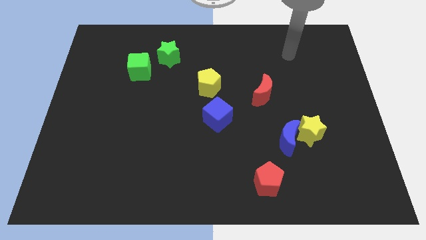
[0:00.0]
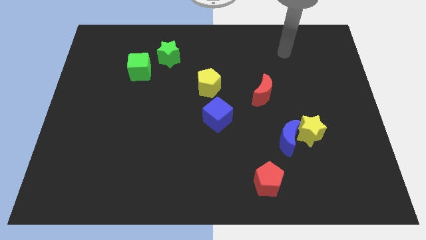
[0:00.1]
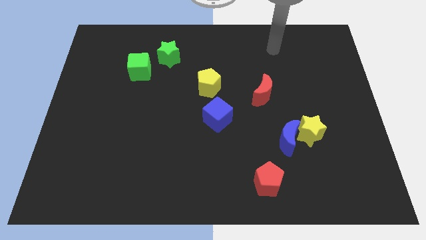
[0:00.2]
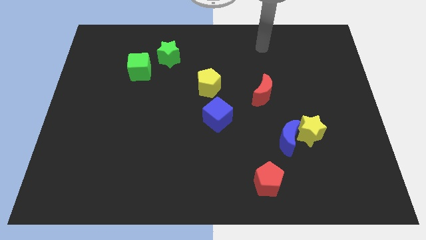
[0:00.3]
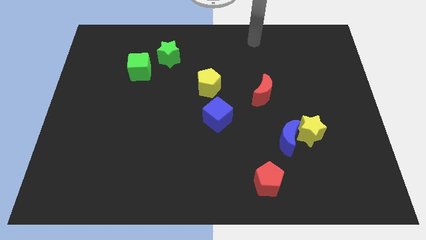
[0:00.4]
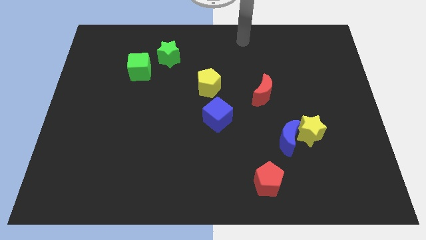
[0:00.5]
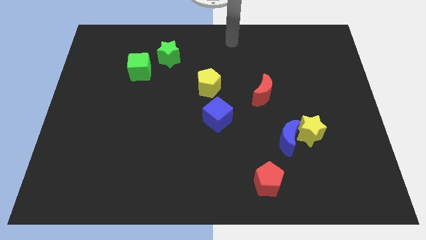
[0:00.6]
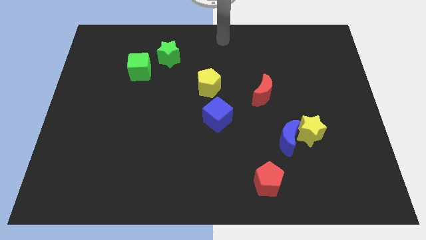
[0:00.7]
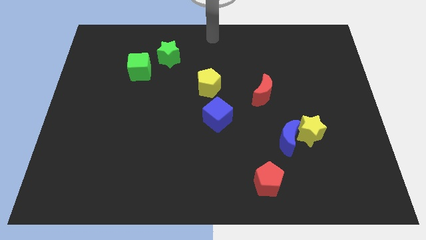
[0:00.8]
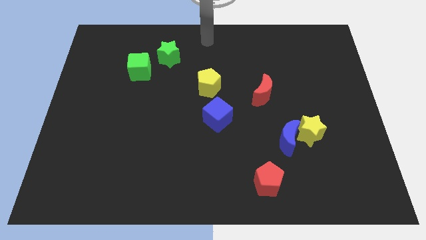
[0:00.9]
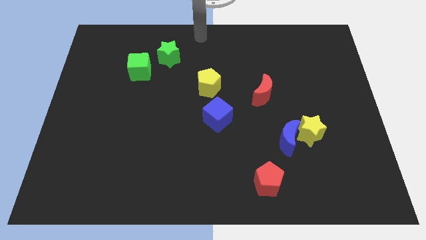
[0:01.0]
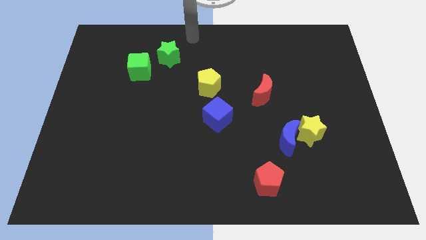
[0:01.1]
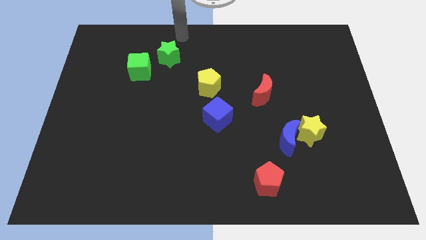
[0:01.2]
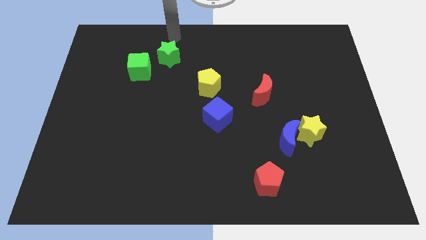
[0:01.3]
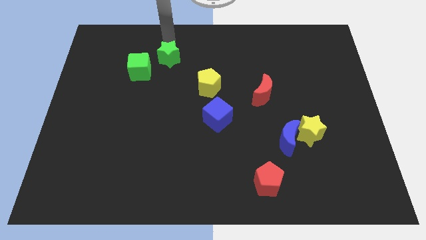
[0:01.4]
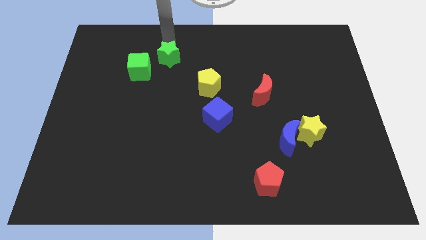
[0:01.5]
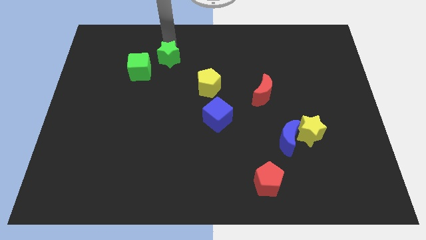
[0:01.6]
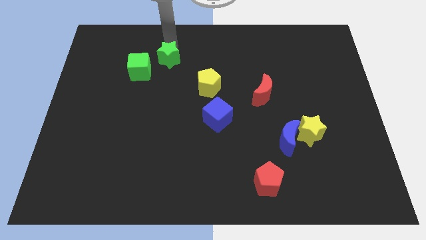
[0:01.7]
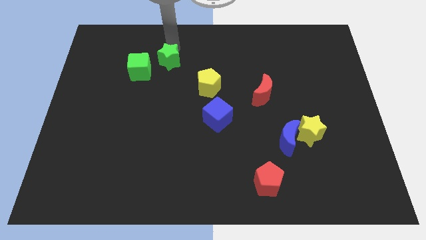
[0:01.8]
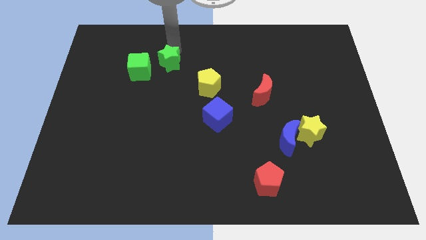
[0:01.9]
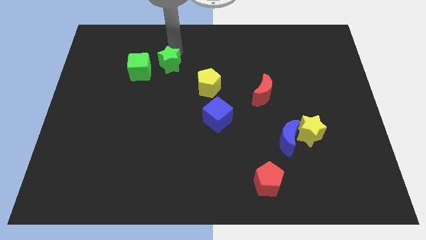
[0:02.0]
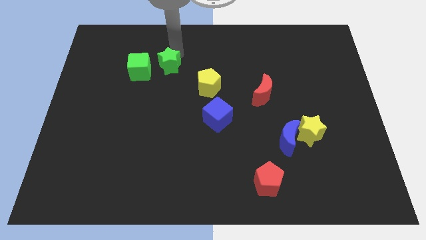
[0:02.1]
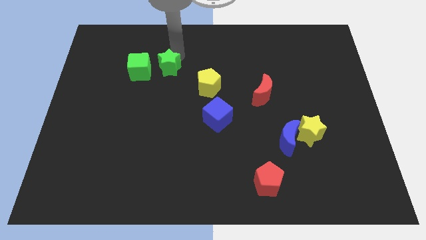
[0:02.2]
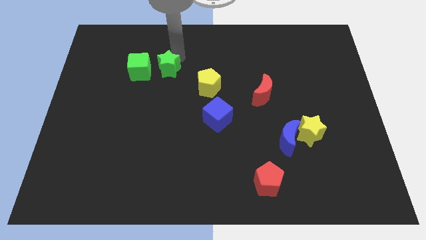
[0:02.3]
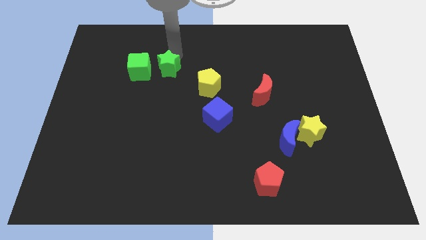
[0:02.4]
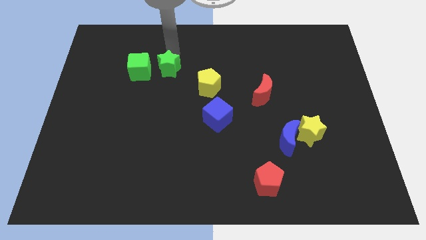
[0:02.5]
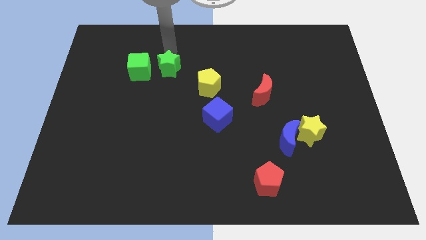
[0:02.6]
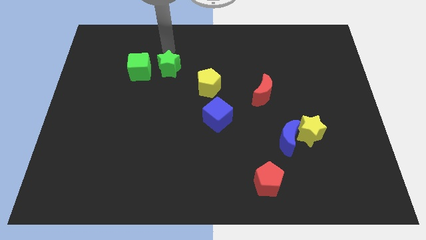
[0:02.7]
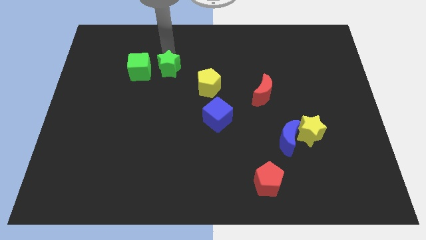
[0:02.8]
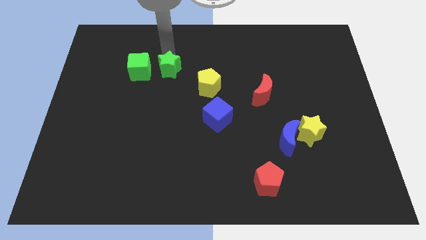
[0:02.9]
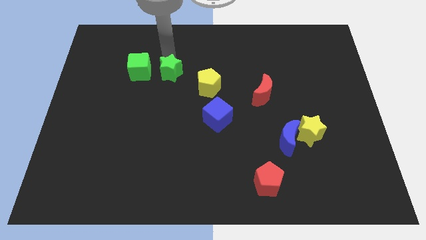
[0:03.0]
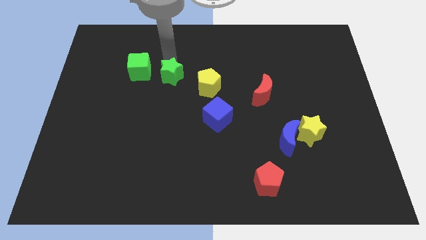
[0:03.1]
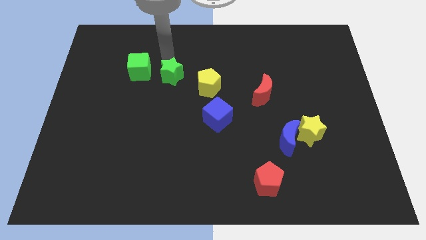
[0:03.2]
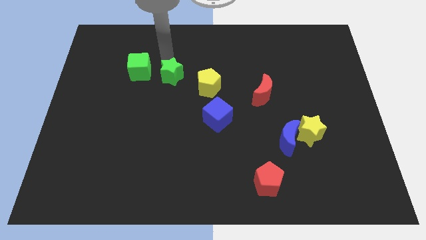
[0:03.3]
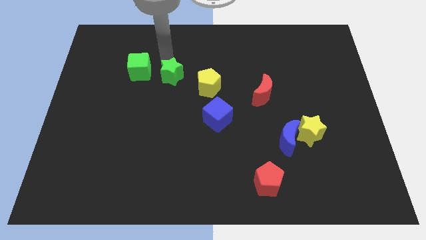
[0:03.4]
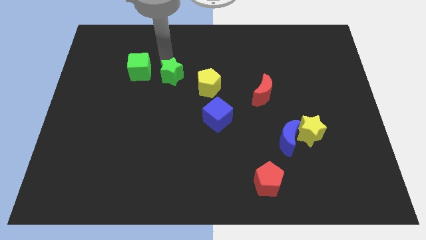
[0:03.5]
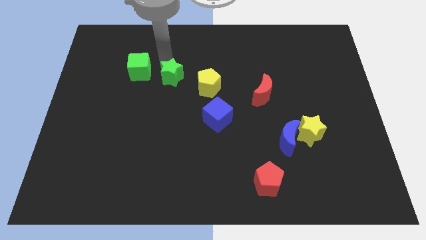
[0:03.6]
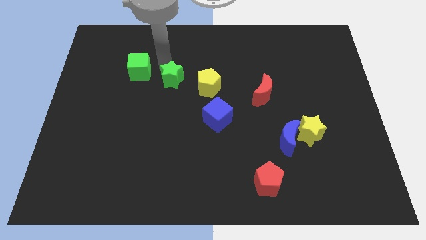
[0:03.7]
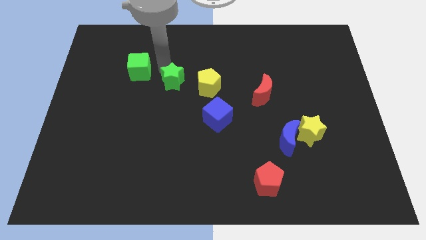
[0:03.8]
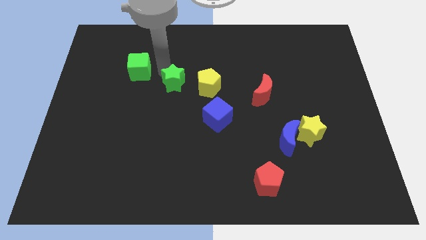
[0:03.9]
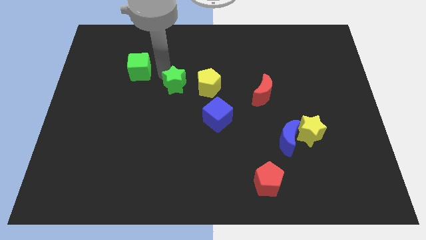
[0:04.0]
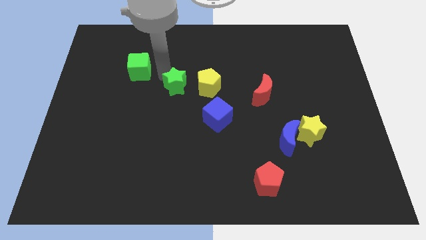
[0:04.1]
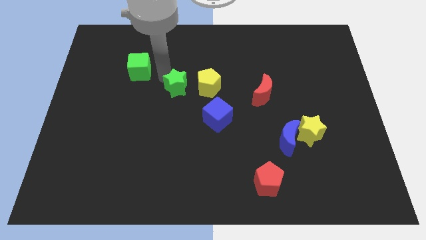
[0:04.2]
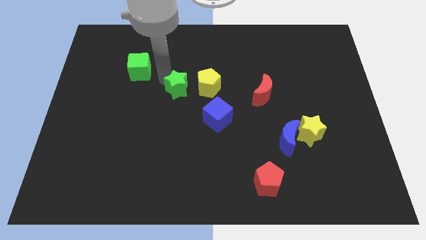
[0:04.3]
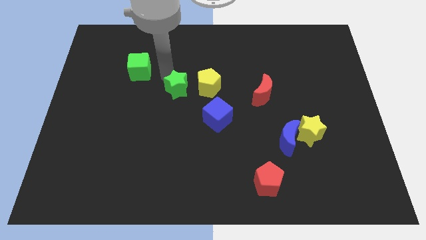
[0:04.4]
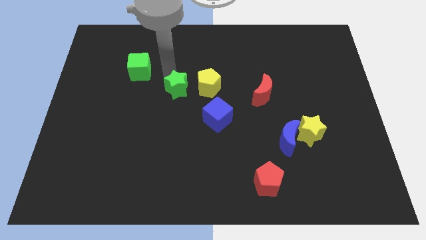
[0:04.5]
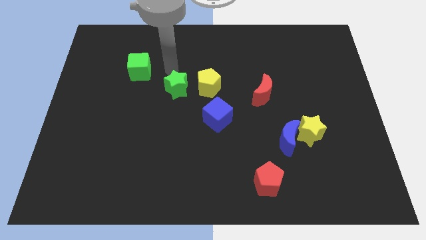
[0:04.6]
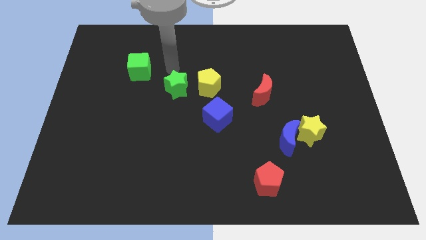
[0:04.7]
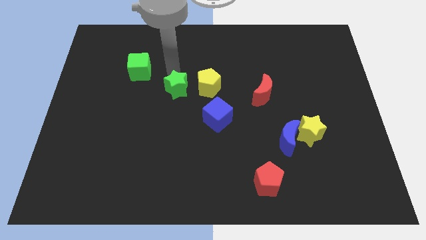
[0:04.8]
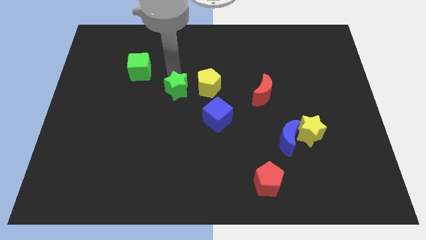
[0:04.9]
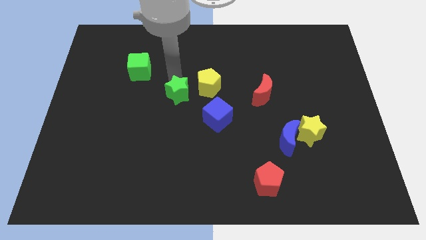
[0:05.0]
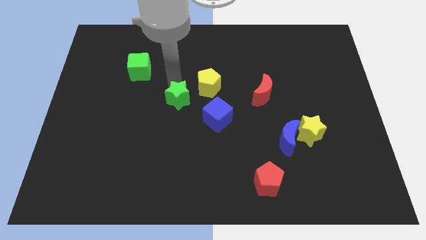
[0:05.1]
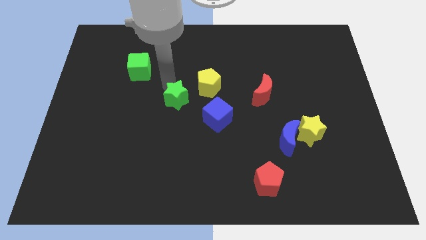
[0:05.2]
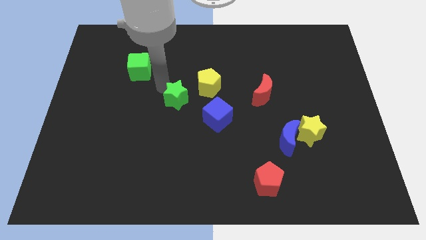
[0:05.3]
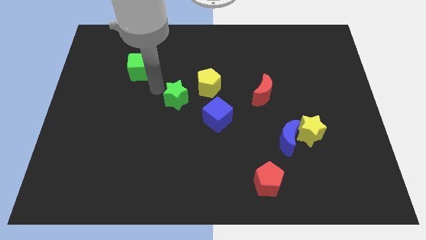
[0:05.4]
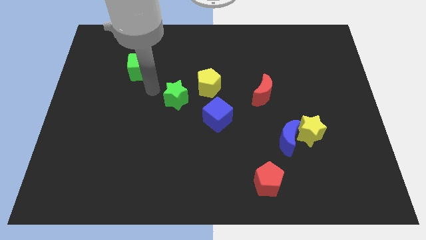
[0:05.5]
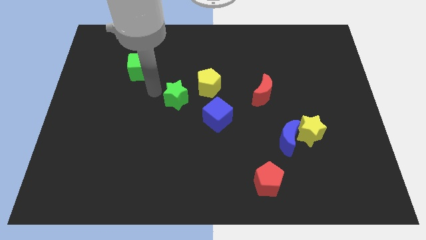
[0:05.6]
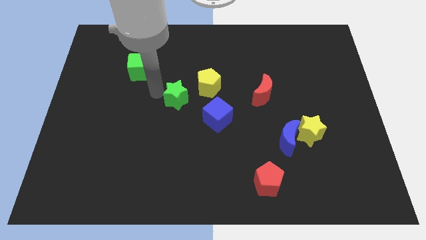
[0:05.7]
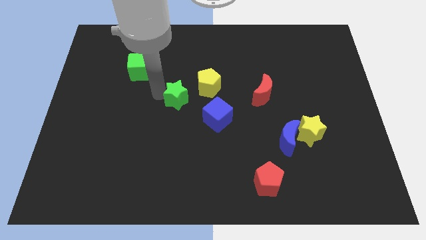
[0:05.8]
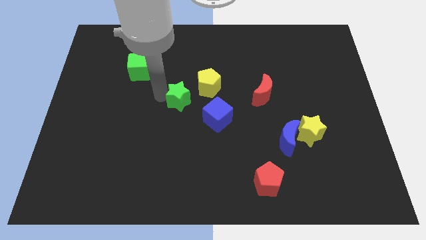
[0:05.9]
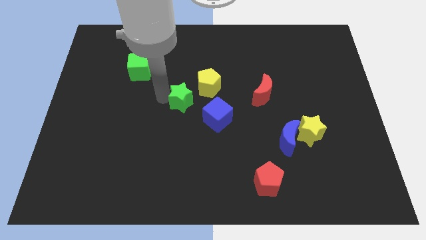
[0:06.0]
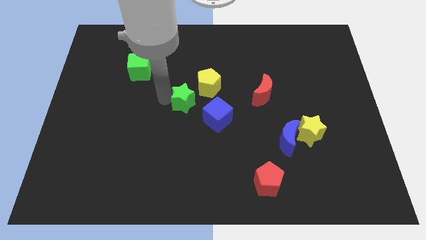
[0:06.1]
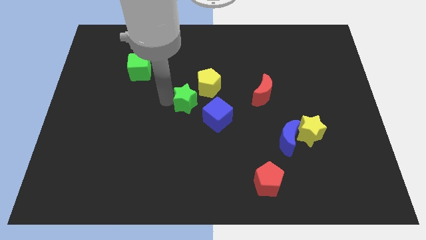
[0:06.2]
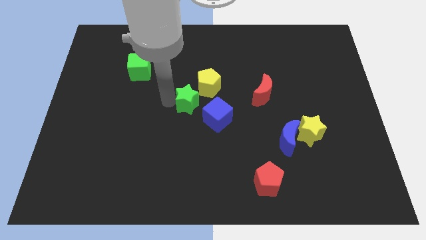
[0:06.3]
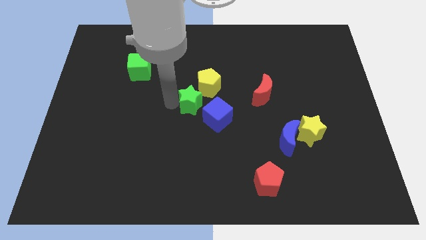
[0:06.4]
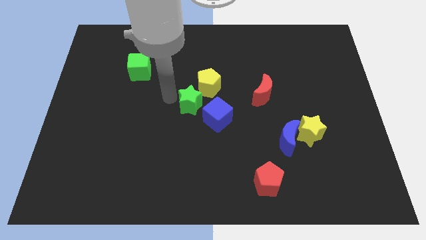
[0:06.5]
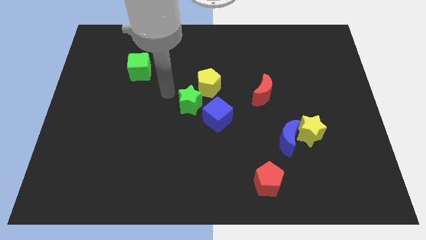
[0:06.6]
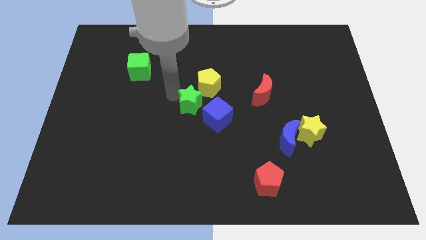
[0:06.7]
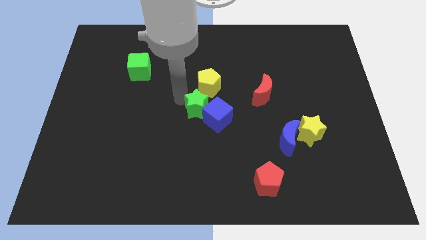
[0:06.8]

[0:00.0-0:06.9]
put the green star next to the blue cube
